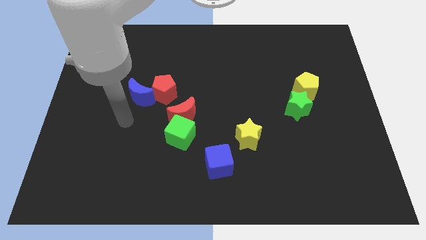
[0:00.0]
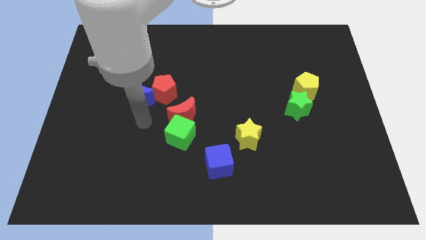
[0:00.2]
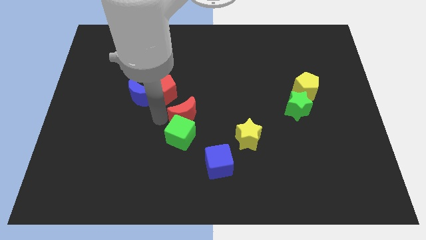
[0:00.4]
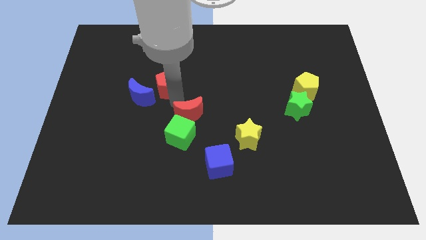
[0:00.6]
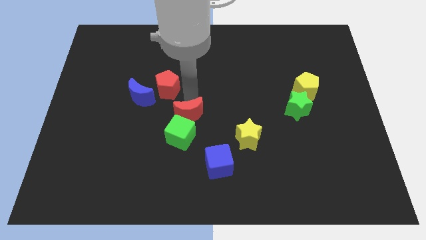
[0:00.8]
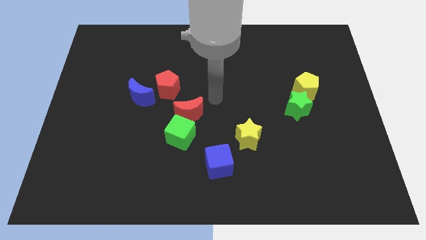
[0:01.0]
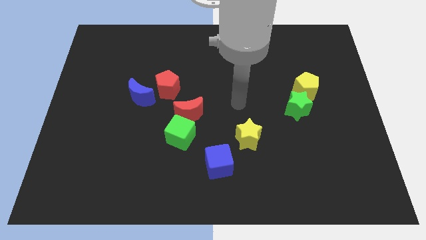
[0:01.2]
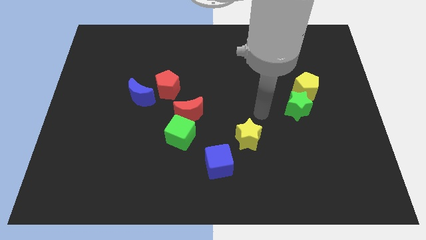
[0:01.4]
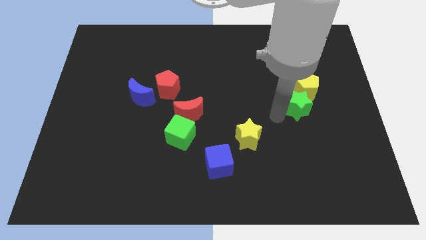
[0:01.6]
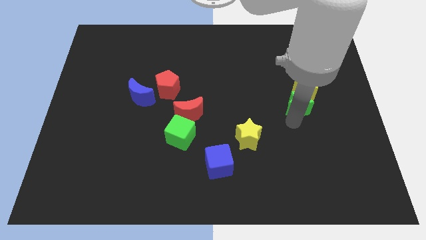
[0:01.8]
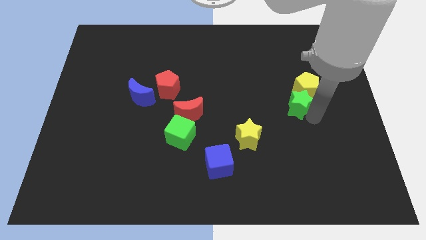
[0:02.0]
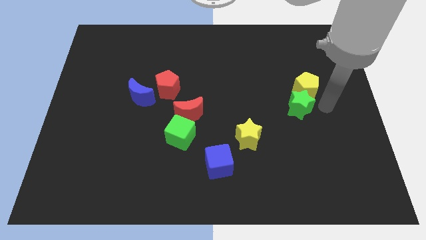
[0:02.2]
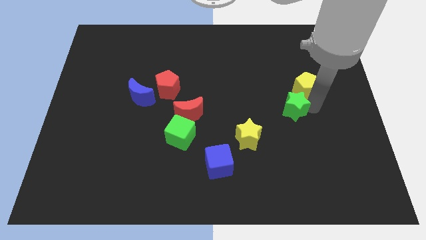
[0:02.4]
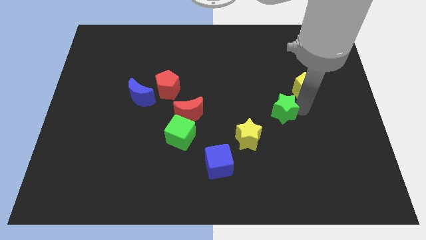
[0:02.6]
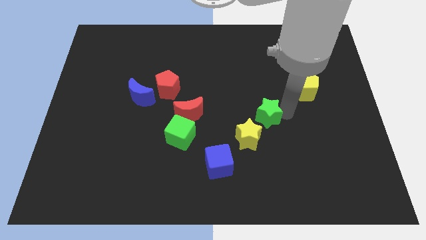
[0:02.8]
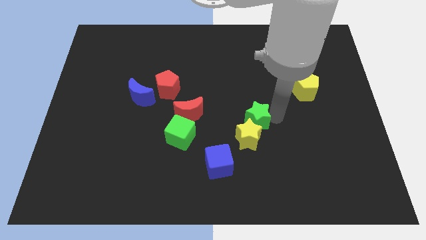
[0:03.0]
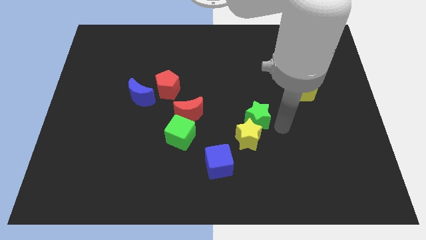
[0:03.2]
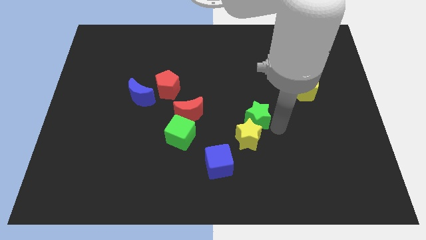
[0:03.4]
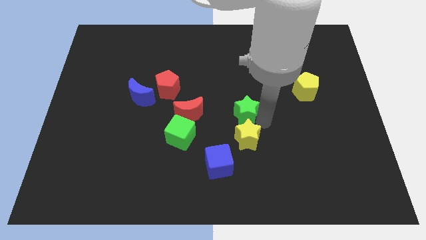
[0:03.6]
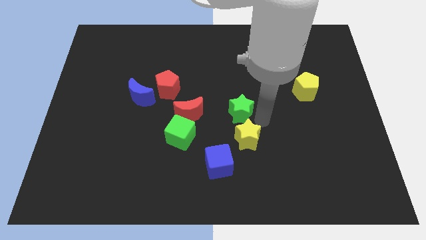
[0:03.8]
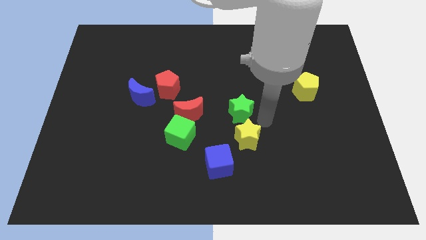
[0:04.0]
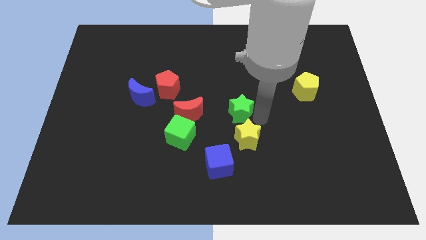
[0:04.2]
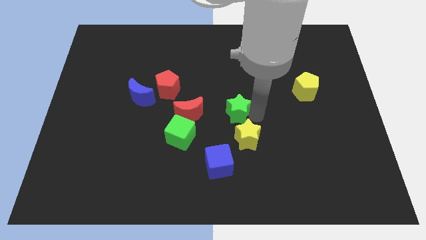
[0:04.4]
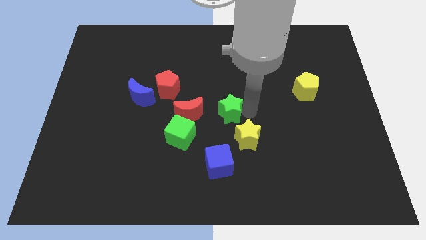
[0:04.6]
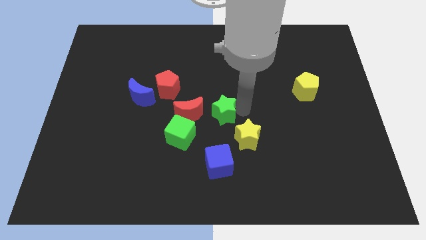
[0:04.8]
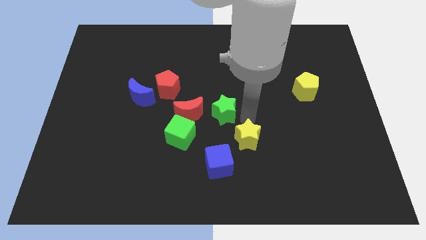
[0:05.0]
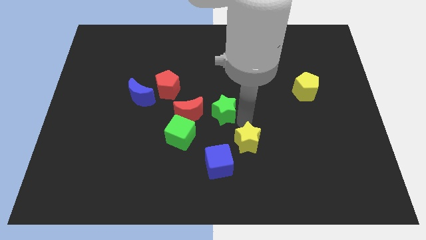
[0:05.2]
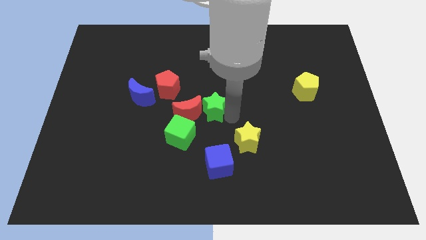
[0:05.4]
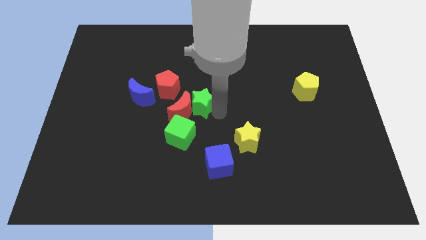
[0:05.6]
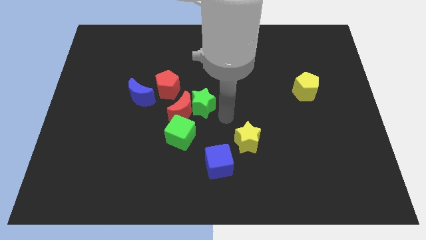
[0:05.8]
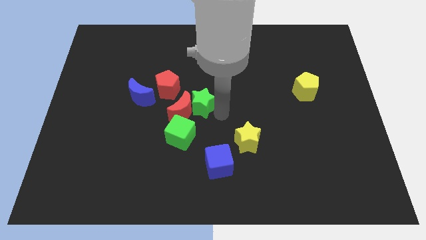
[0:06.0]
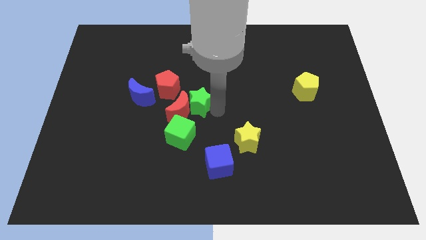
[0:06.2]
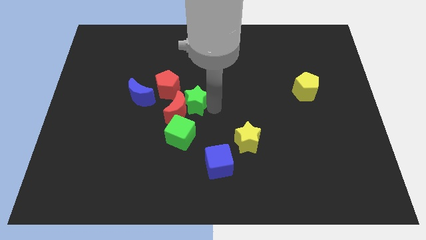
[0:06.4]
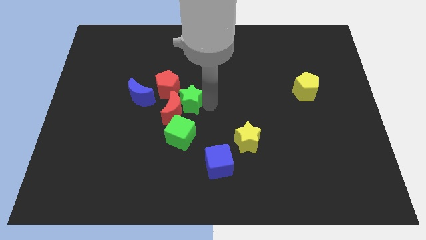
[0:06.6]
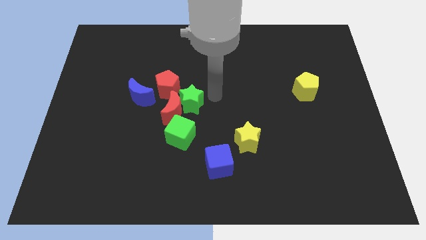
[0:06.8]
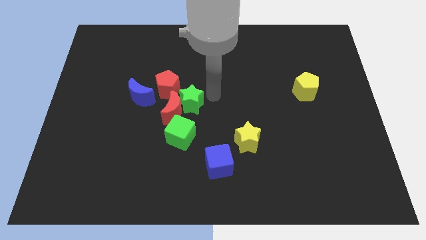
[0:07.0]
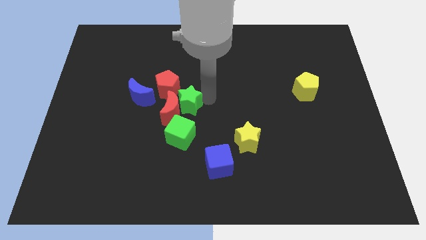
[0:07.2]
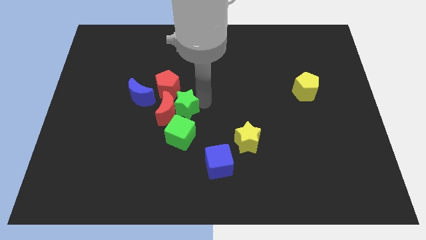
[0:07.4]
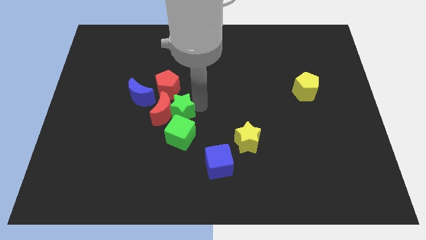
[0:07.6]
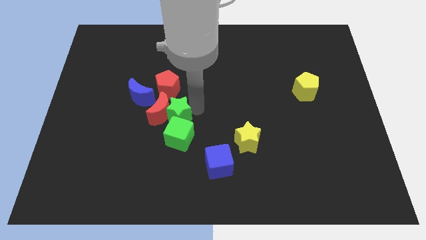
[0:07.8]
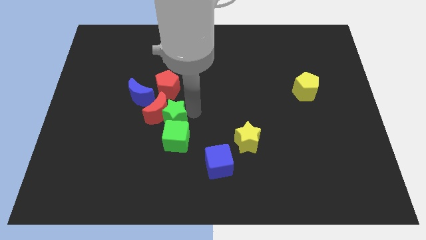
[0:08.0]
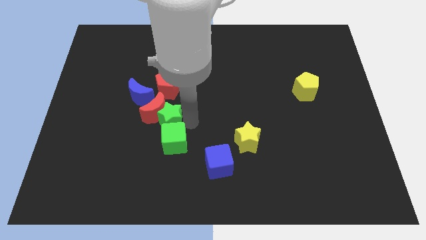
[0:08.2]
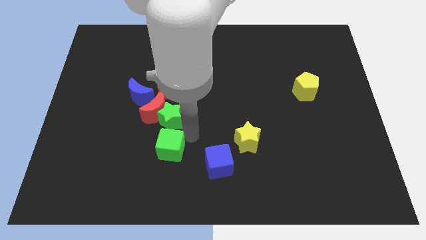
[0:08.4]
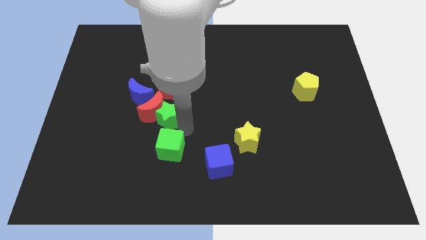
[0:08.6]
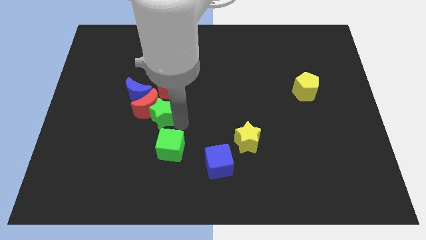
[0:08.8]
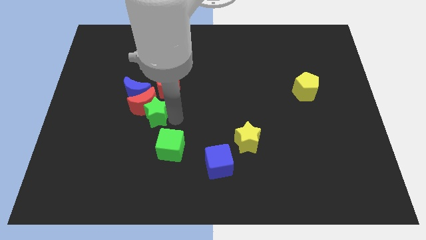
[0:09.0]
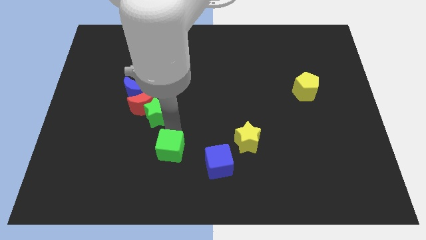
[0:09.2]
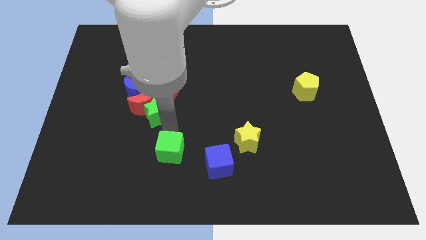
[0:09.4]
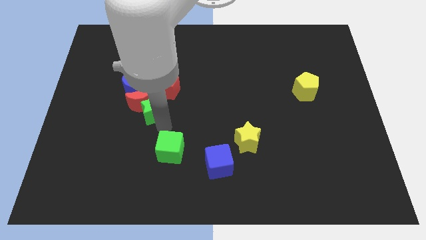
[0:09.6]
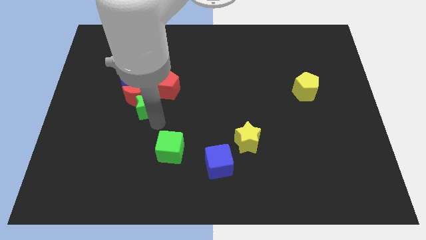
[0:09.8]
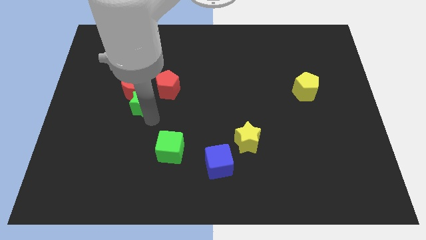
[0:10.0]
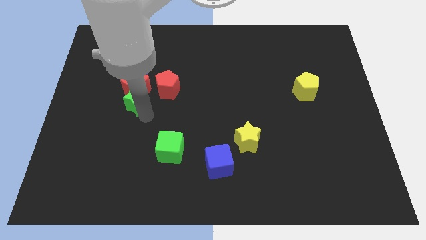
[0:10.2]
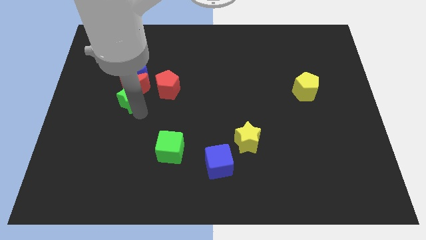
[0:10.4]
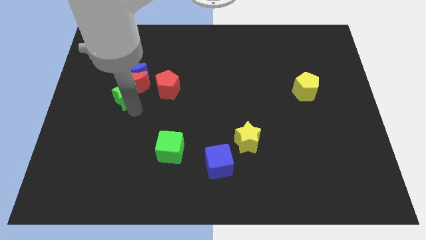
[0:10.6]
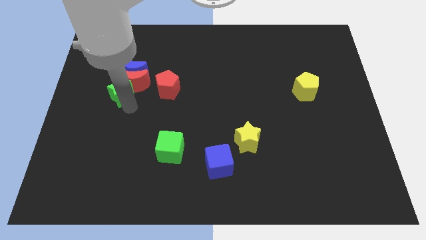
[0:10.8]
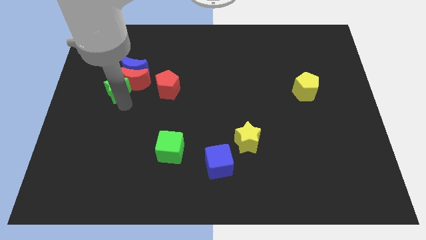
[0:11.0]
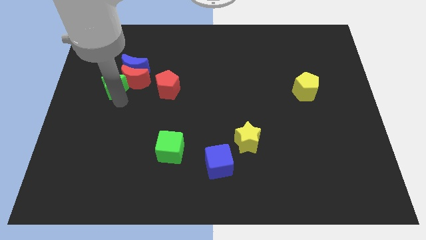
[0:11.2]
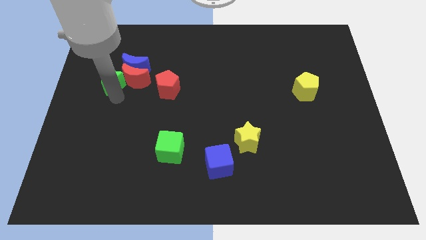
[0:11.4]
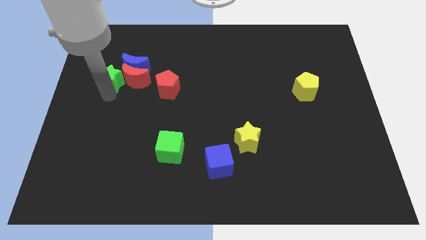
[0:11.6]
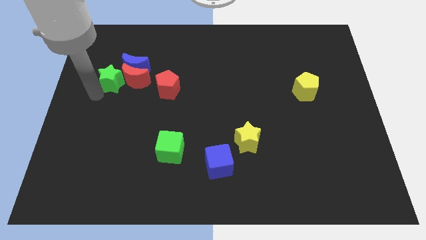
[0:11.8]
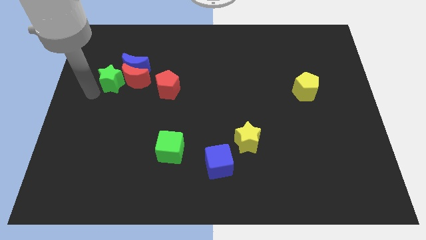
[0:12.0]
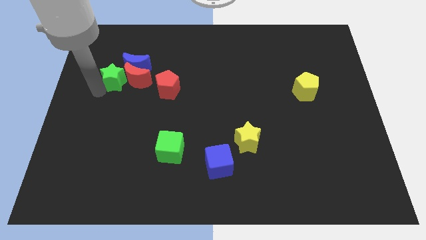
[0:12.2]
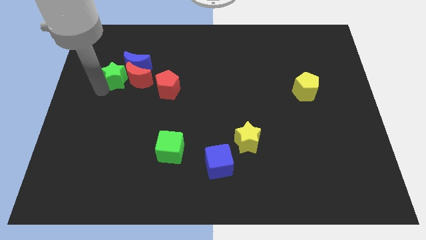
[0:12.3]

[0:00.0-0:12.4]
move the green star to the blue moon
